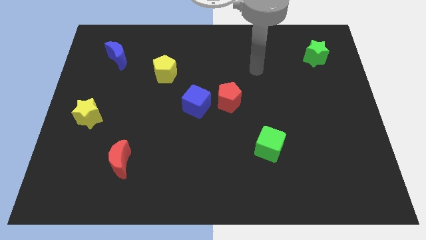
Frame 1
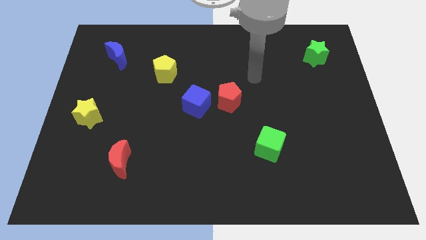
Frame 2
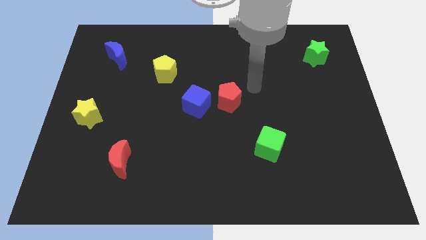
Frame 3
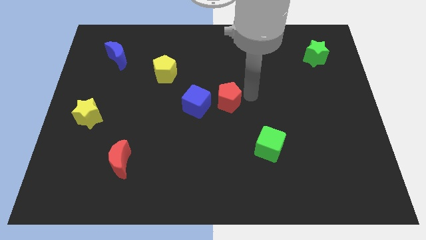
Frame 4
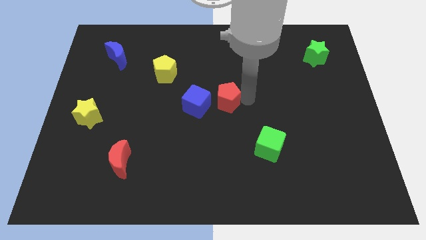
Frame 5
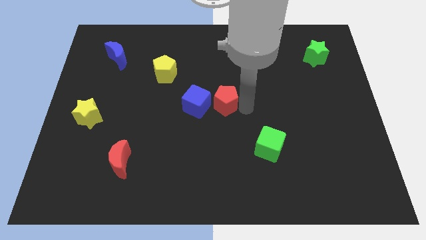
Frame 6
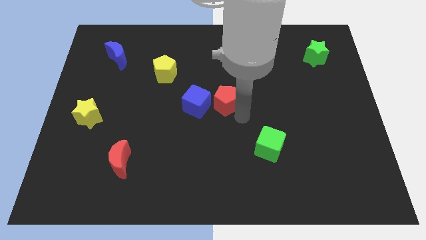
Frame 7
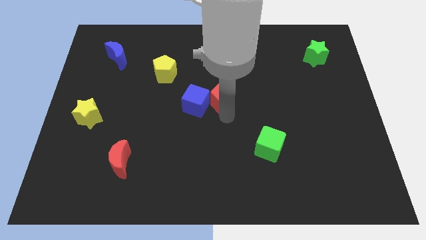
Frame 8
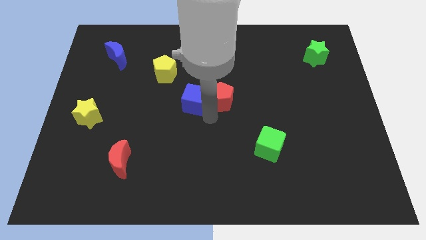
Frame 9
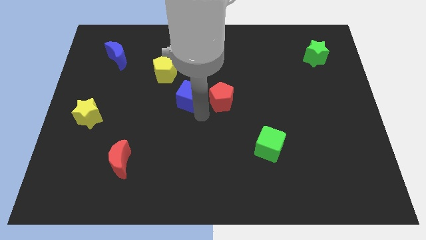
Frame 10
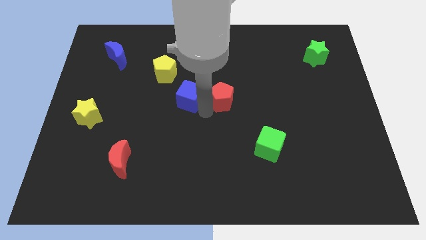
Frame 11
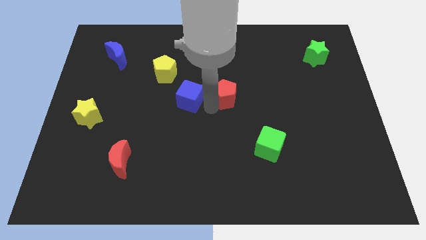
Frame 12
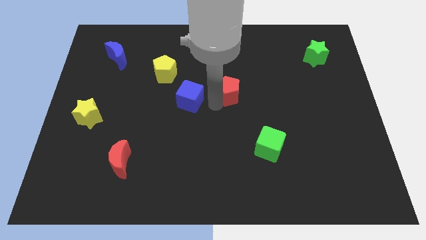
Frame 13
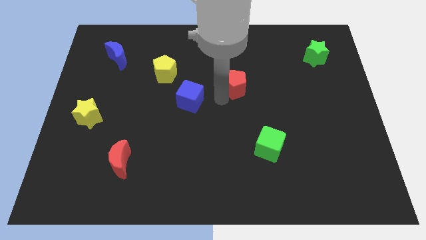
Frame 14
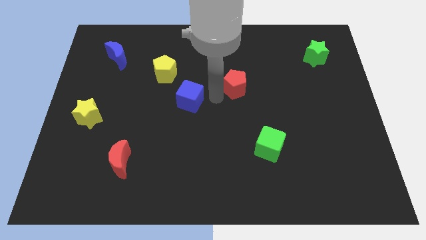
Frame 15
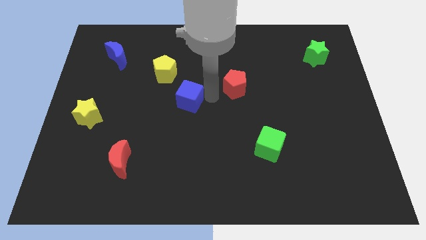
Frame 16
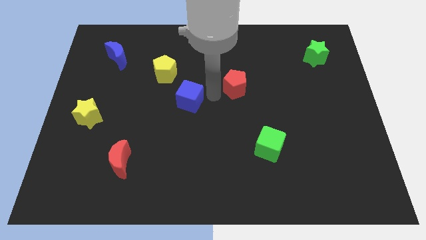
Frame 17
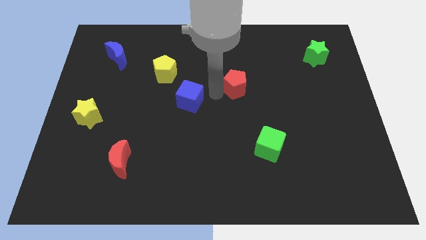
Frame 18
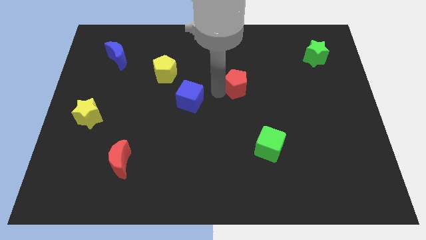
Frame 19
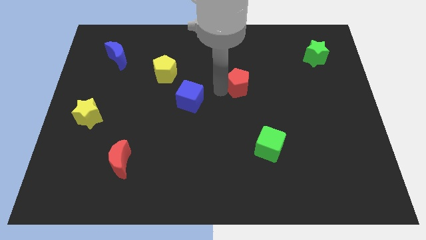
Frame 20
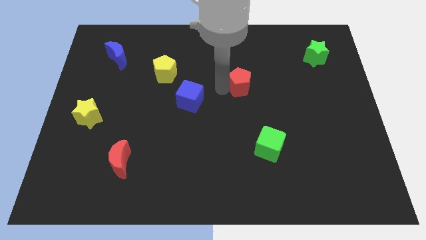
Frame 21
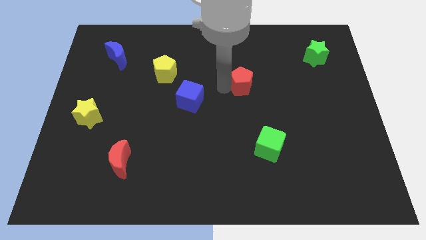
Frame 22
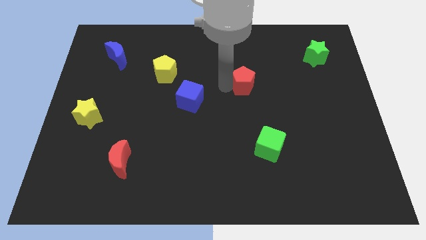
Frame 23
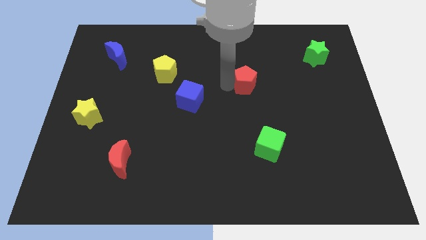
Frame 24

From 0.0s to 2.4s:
slide the red pentagon a little up and right diagonally

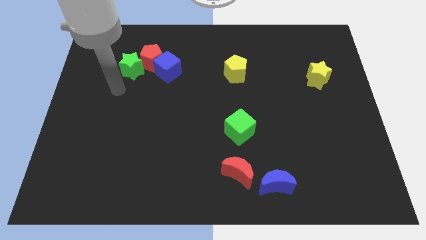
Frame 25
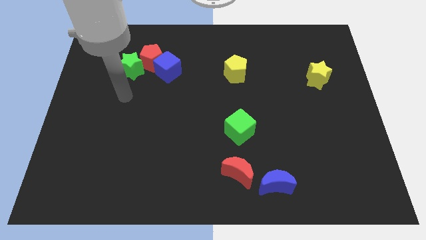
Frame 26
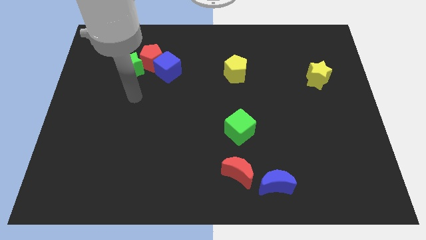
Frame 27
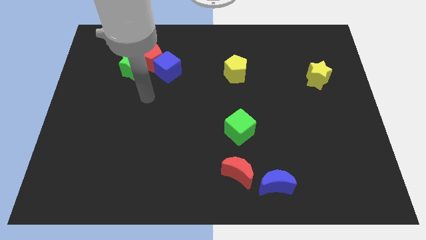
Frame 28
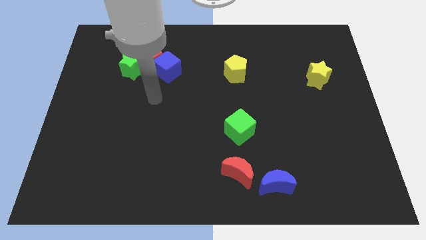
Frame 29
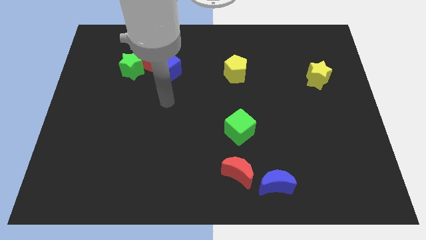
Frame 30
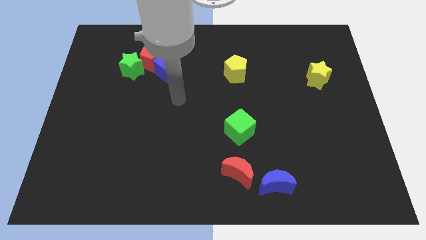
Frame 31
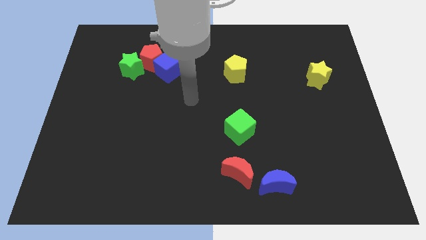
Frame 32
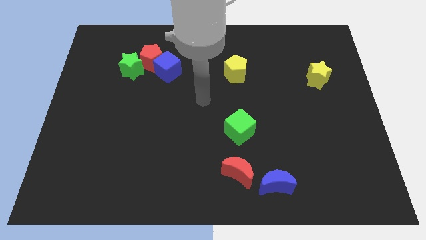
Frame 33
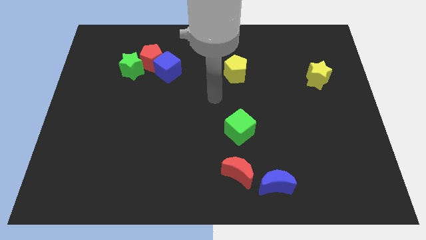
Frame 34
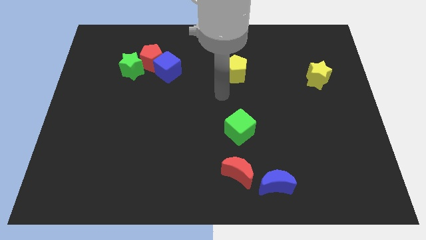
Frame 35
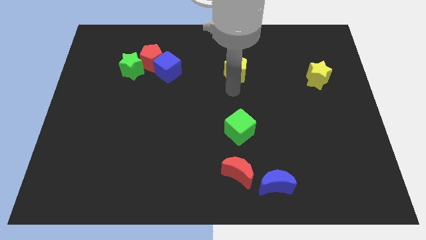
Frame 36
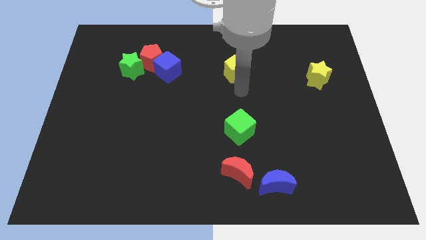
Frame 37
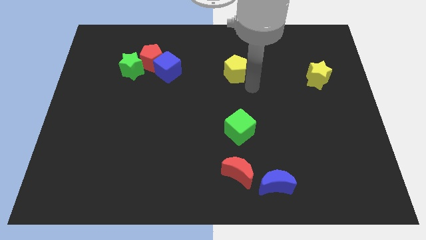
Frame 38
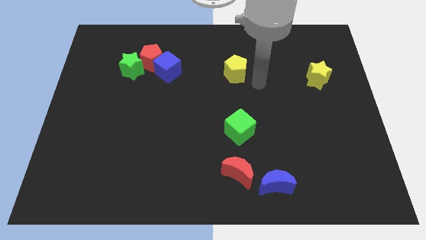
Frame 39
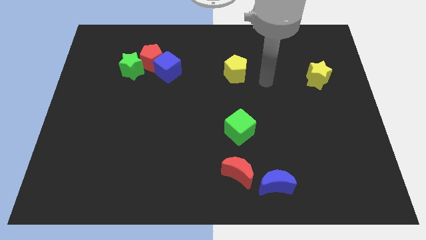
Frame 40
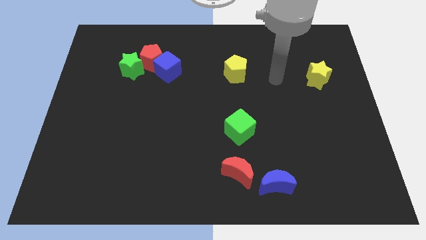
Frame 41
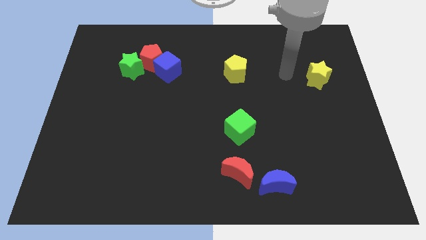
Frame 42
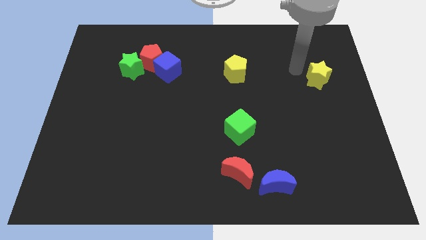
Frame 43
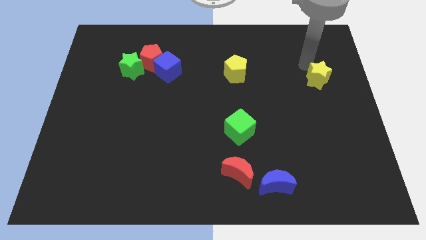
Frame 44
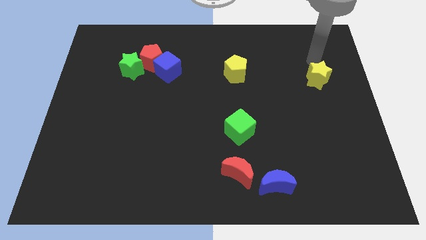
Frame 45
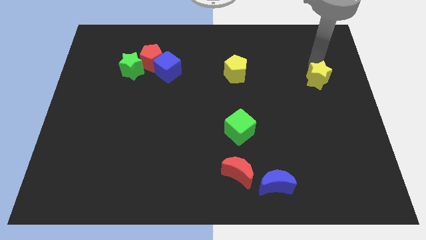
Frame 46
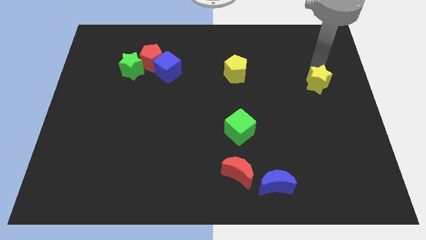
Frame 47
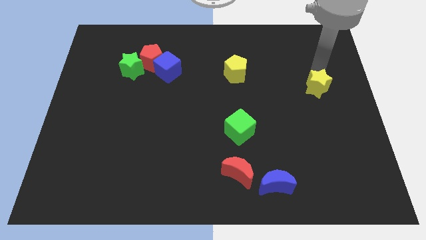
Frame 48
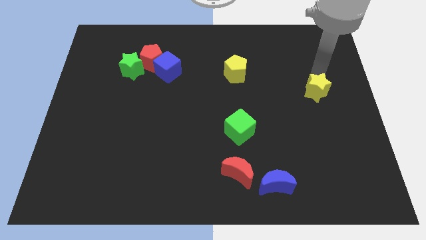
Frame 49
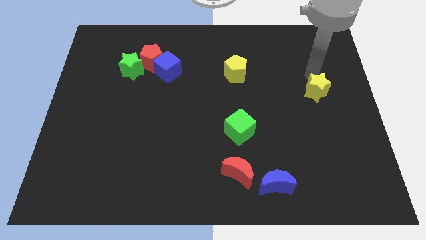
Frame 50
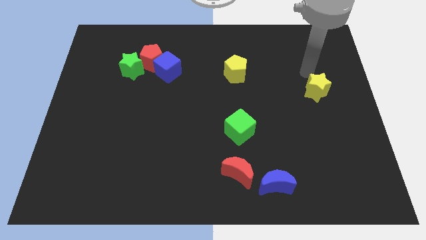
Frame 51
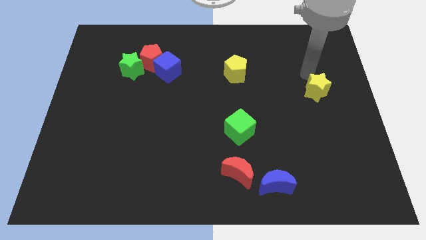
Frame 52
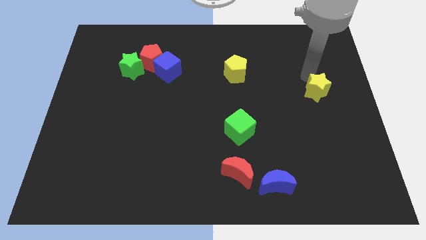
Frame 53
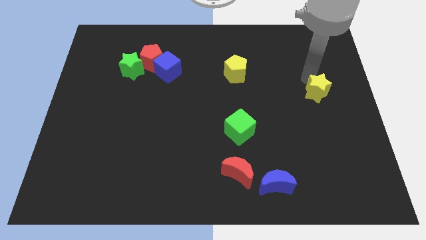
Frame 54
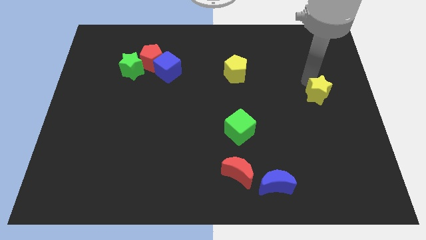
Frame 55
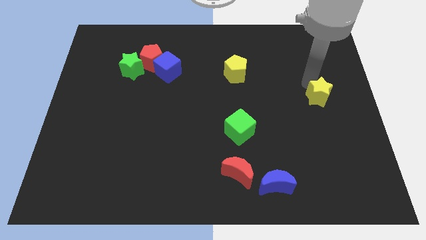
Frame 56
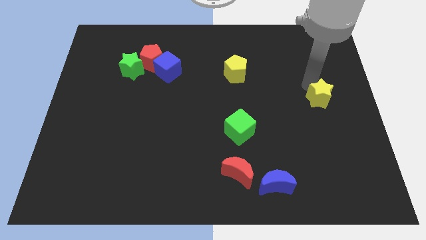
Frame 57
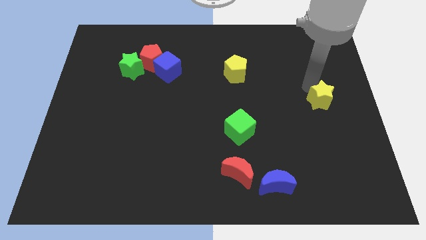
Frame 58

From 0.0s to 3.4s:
move the yellow star somewhat downwards

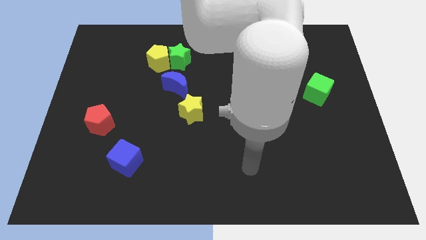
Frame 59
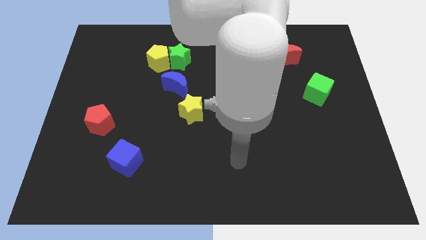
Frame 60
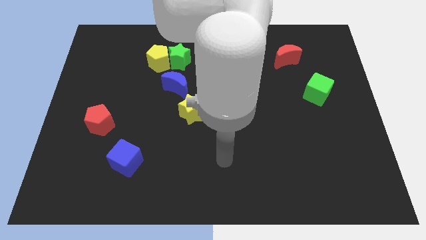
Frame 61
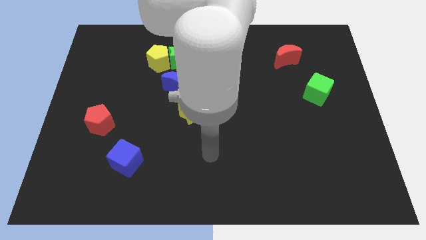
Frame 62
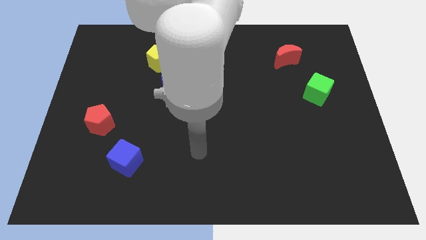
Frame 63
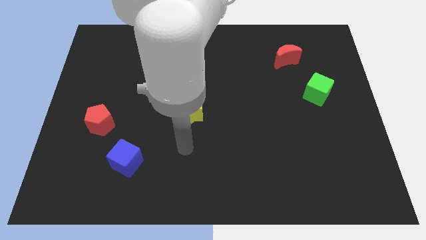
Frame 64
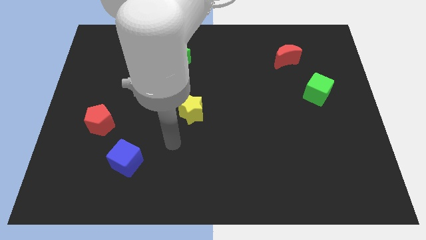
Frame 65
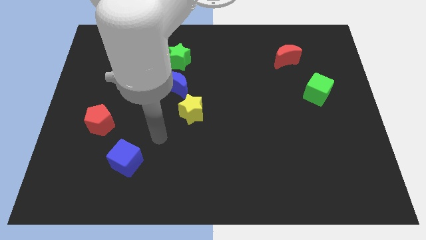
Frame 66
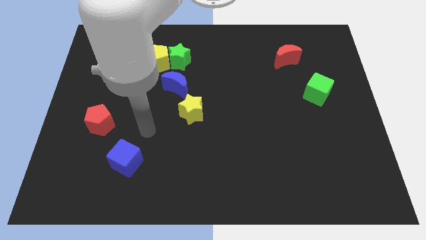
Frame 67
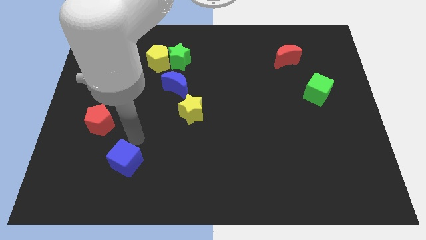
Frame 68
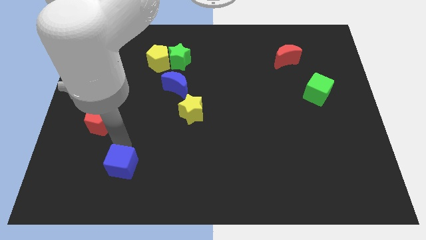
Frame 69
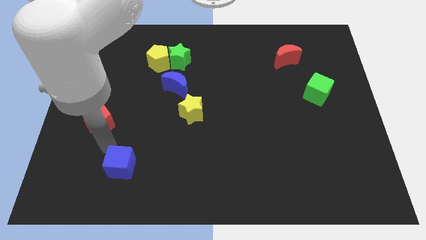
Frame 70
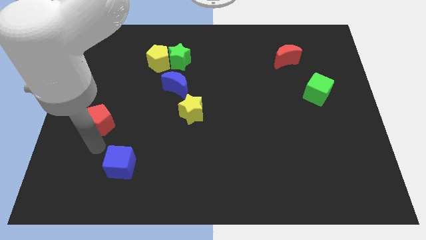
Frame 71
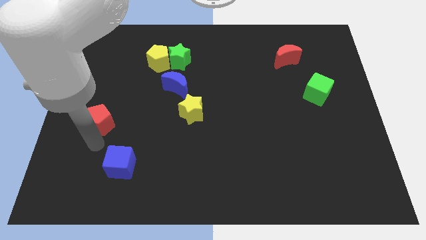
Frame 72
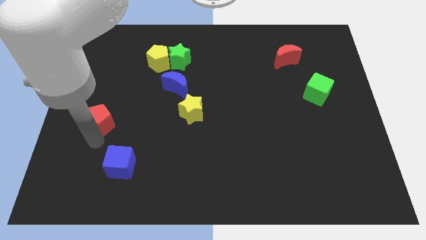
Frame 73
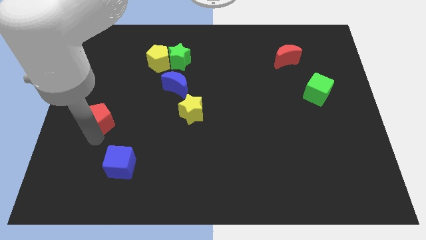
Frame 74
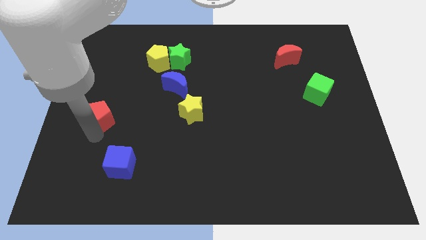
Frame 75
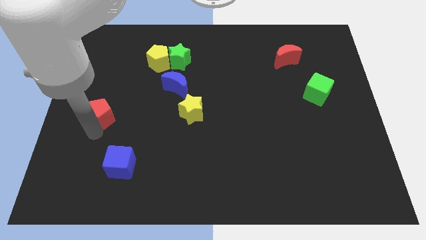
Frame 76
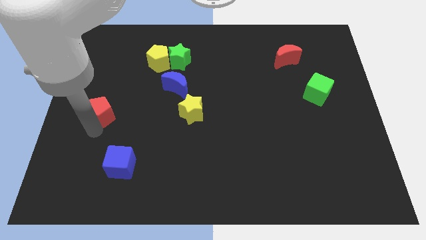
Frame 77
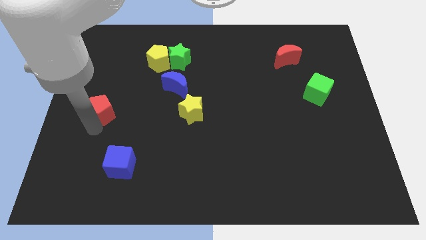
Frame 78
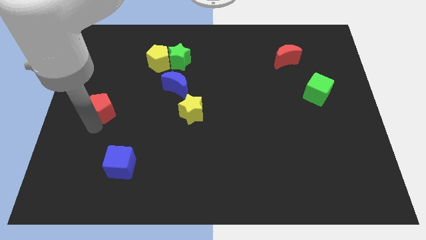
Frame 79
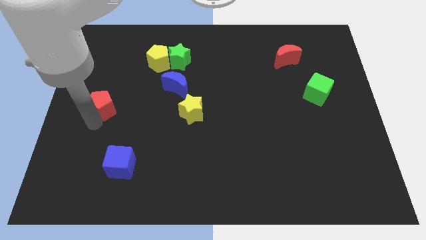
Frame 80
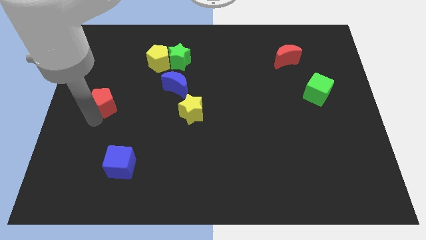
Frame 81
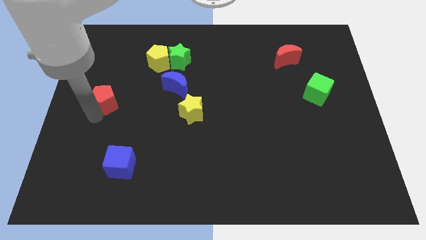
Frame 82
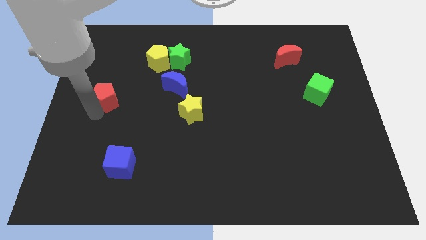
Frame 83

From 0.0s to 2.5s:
slide the red pentagon somewhat upwards

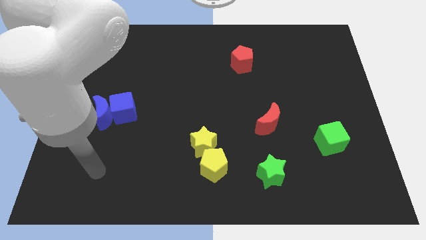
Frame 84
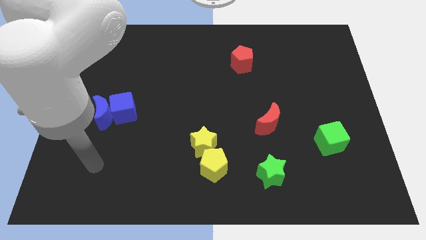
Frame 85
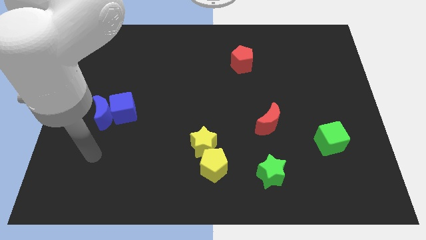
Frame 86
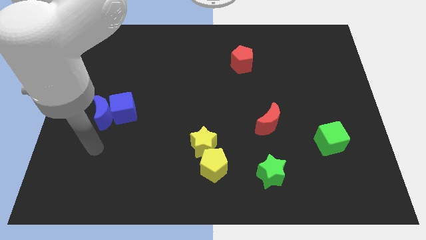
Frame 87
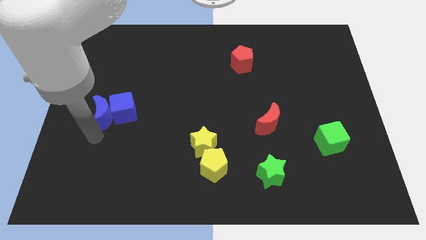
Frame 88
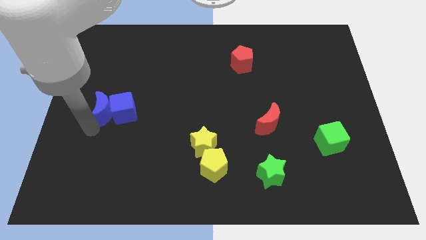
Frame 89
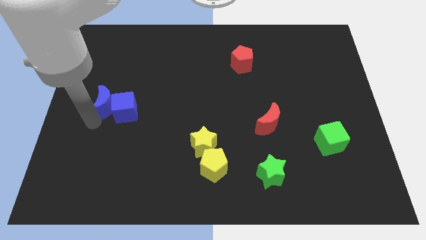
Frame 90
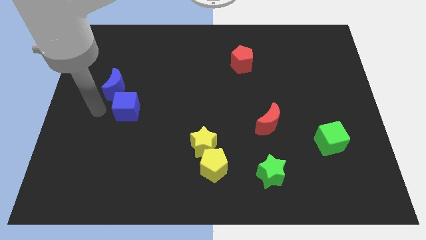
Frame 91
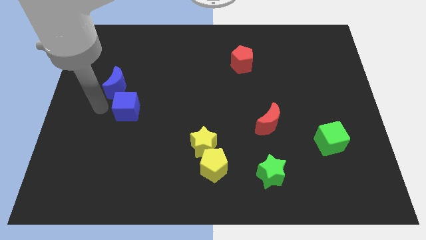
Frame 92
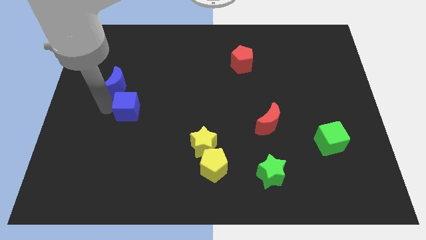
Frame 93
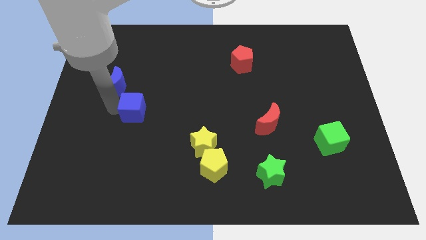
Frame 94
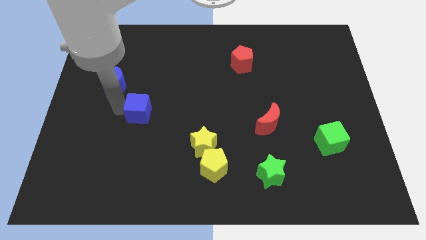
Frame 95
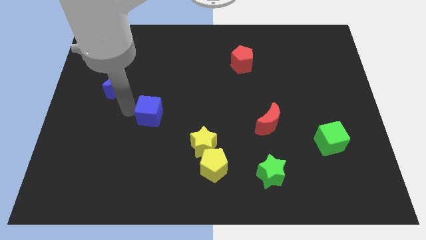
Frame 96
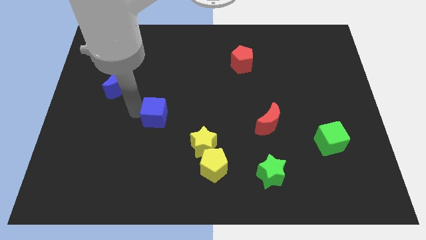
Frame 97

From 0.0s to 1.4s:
push the blue cube a little to the right
